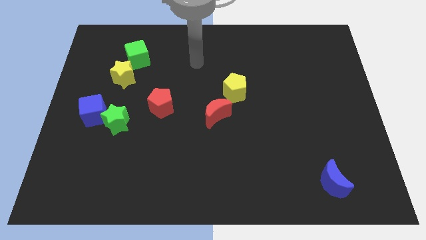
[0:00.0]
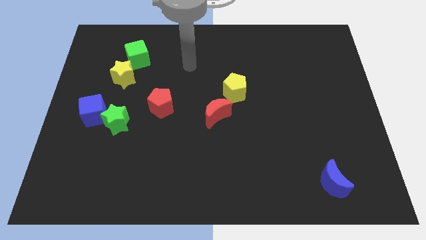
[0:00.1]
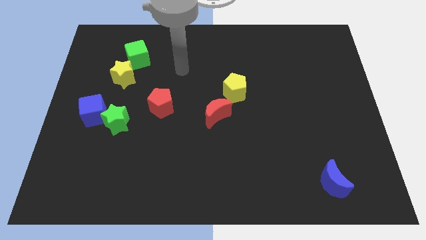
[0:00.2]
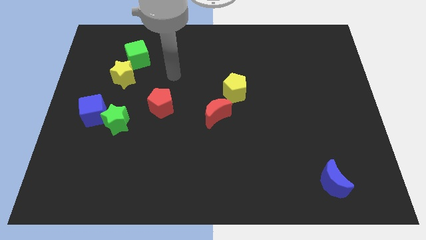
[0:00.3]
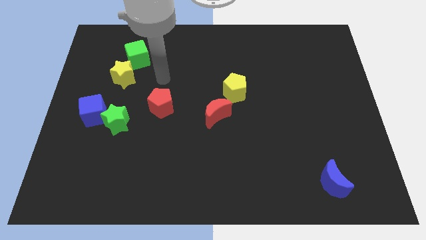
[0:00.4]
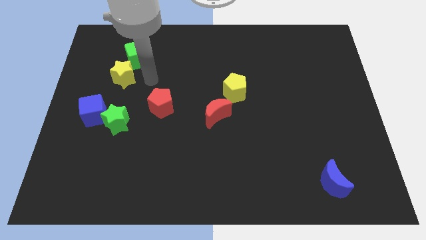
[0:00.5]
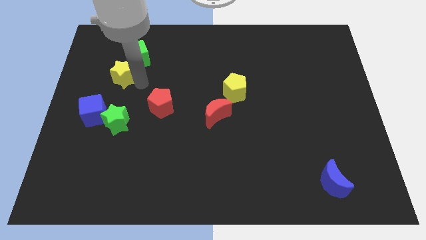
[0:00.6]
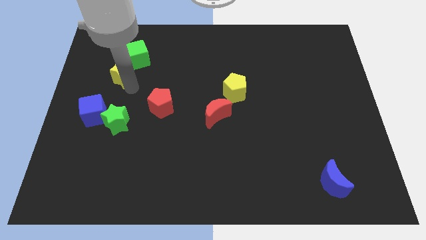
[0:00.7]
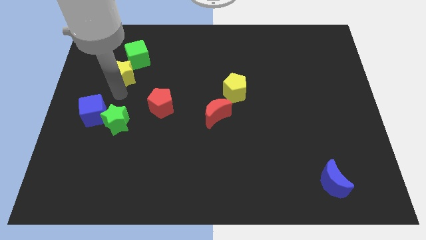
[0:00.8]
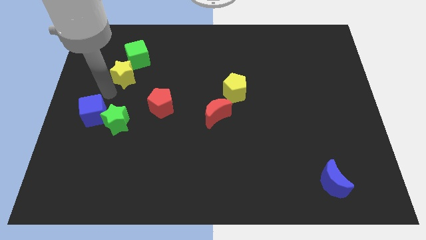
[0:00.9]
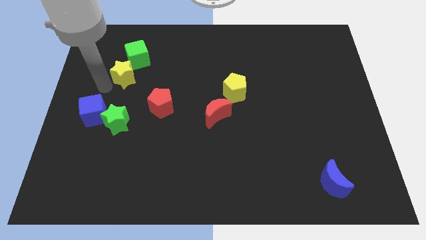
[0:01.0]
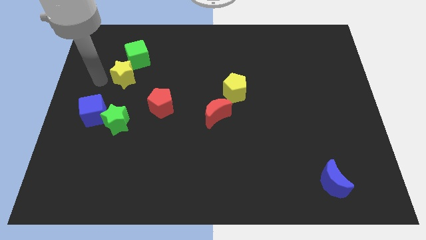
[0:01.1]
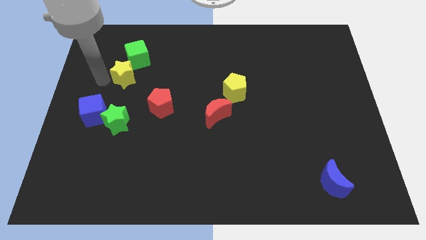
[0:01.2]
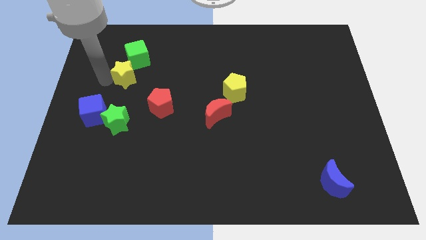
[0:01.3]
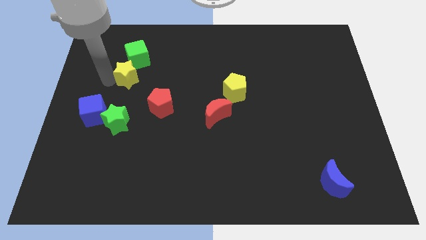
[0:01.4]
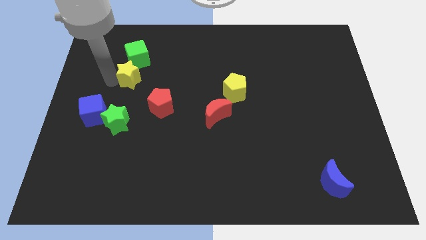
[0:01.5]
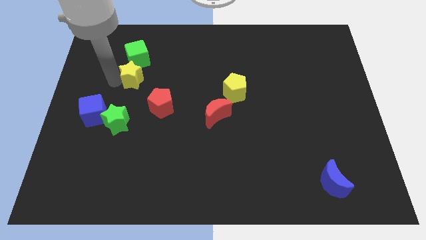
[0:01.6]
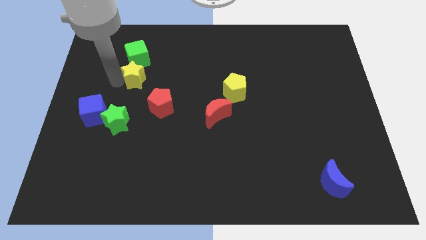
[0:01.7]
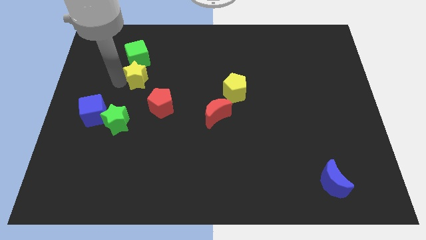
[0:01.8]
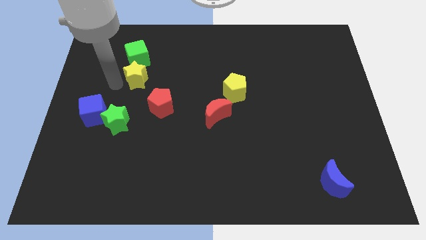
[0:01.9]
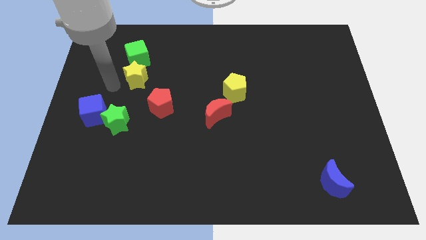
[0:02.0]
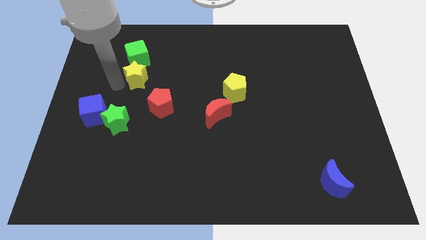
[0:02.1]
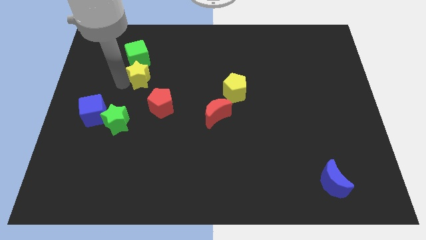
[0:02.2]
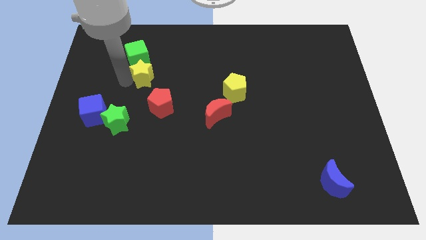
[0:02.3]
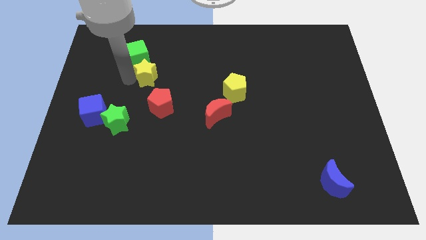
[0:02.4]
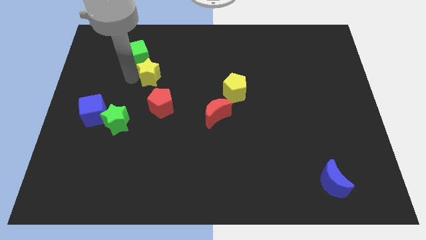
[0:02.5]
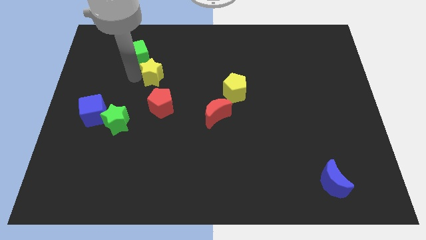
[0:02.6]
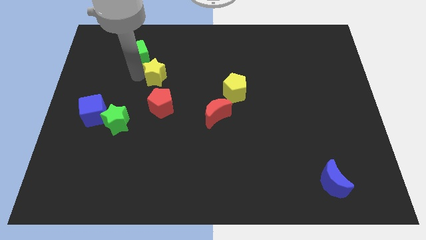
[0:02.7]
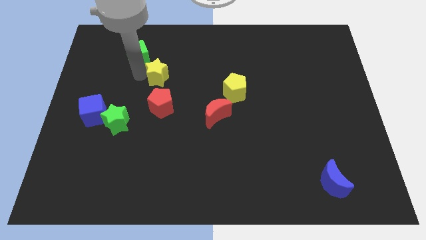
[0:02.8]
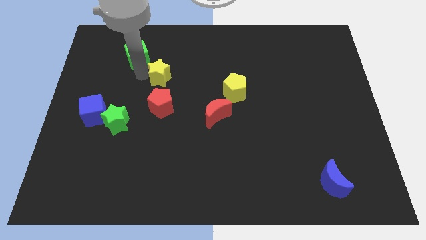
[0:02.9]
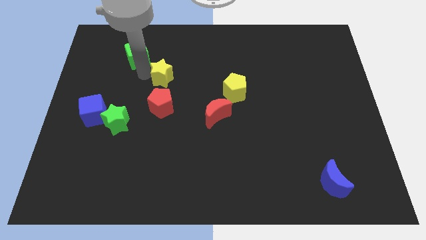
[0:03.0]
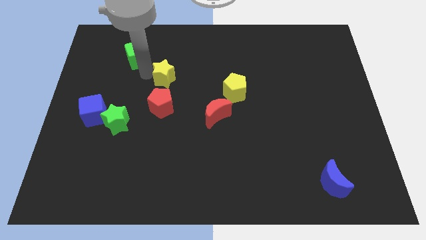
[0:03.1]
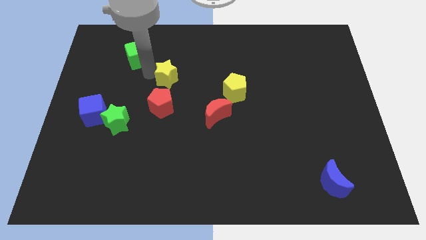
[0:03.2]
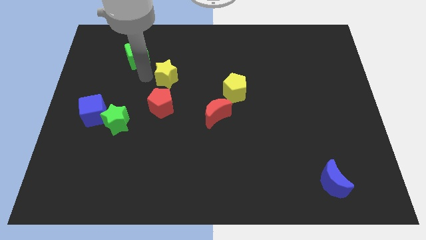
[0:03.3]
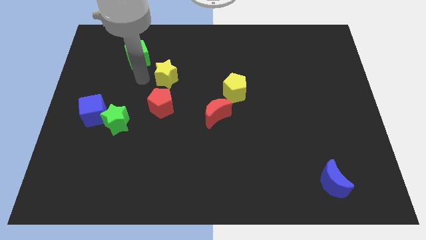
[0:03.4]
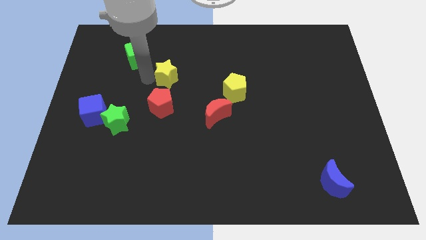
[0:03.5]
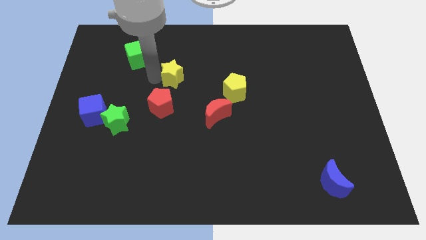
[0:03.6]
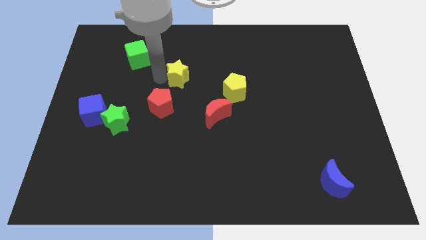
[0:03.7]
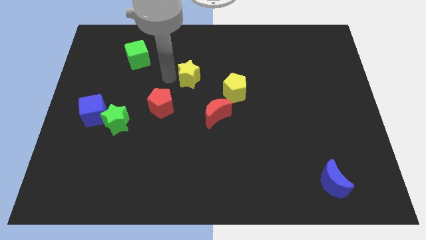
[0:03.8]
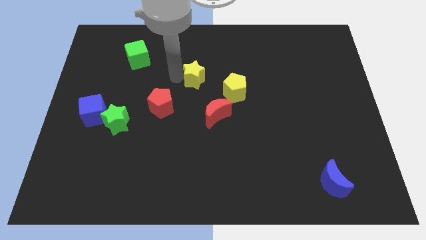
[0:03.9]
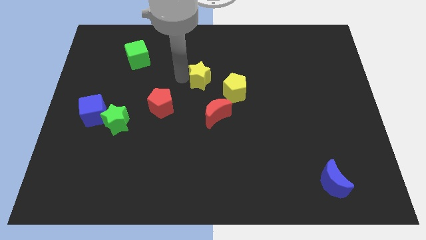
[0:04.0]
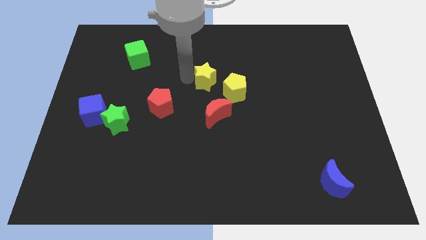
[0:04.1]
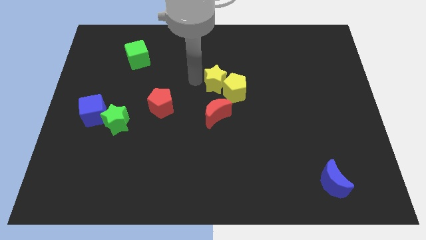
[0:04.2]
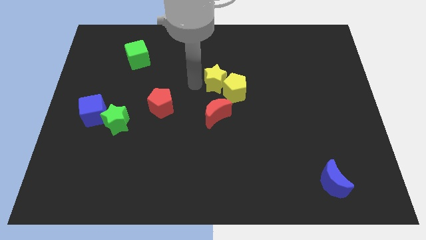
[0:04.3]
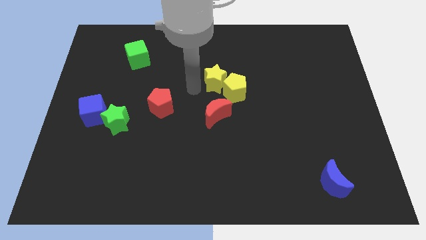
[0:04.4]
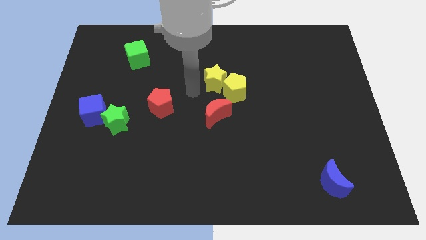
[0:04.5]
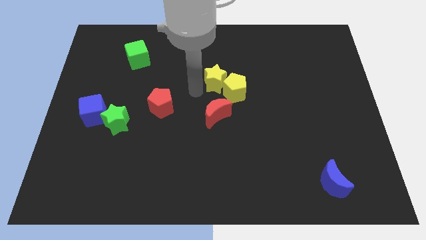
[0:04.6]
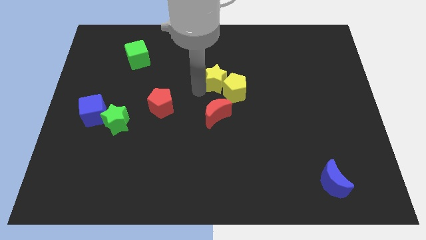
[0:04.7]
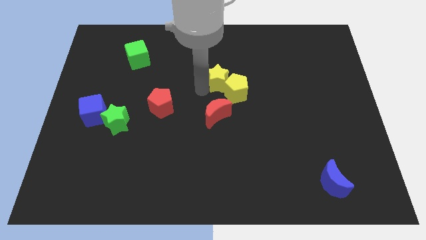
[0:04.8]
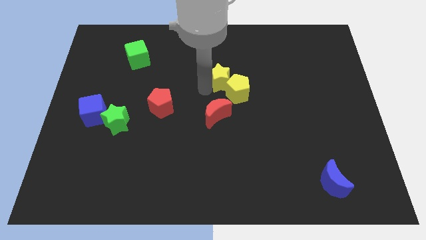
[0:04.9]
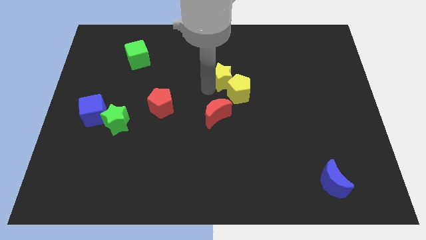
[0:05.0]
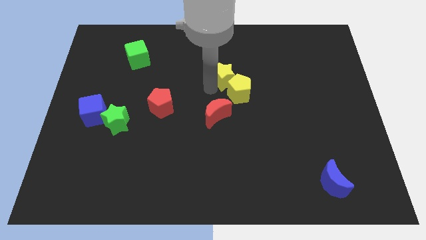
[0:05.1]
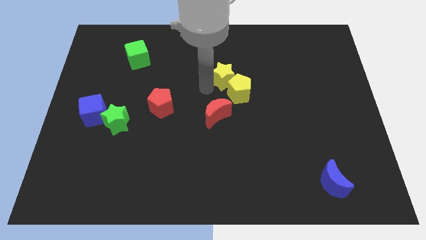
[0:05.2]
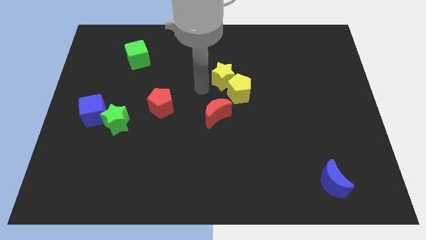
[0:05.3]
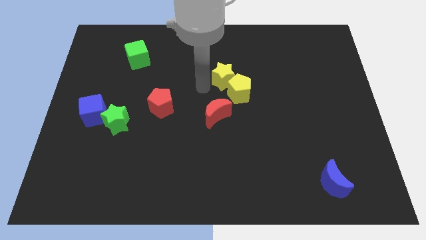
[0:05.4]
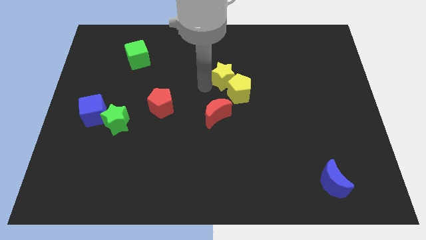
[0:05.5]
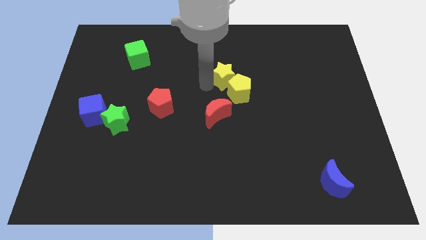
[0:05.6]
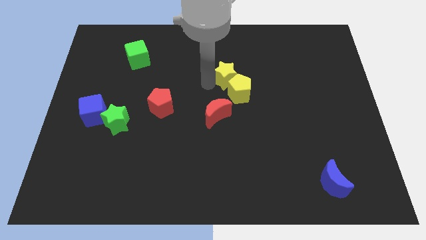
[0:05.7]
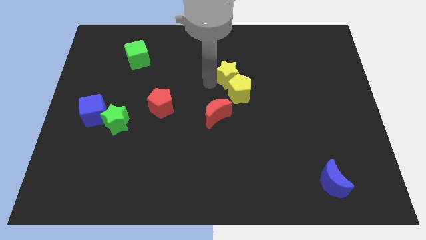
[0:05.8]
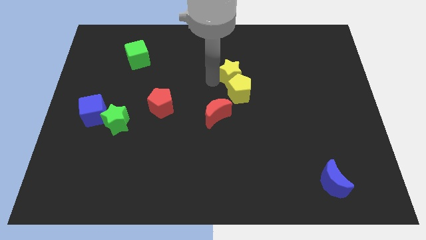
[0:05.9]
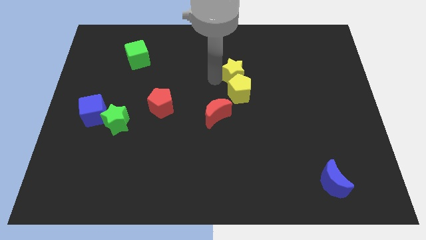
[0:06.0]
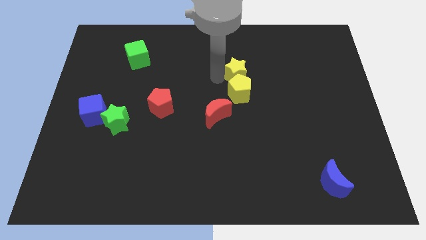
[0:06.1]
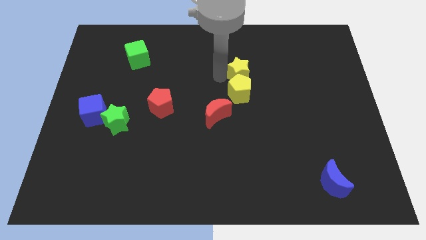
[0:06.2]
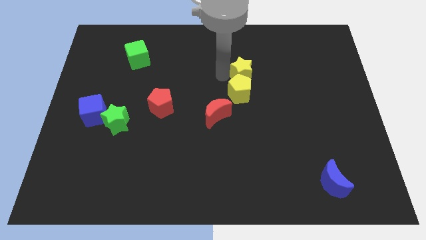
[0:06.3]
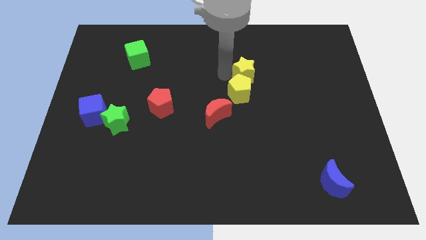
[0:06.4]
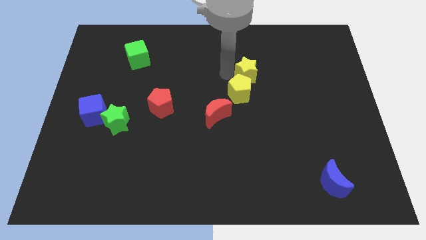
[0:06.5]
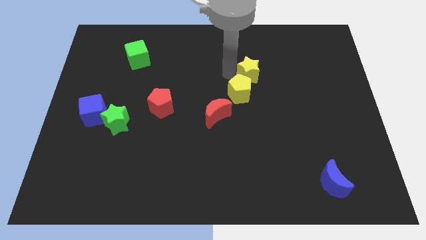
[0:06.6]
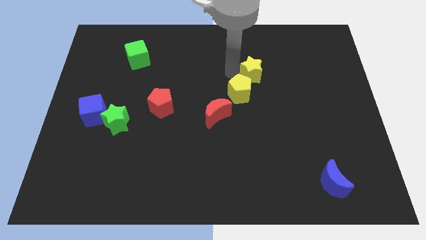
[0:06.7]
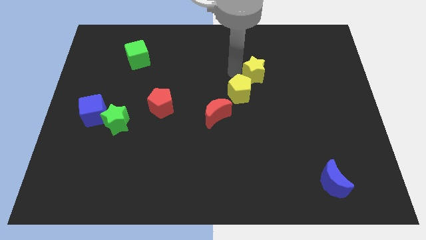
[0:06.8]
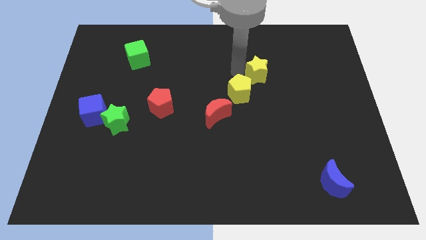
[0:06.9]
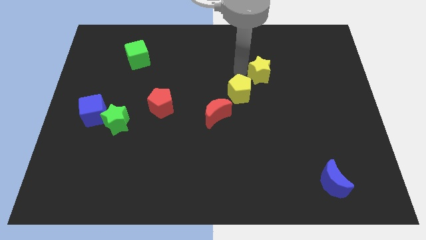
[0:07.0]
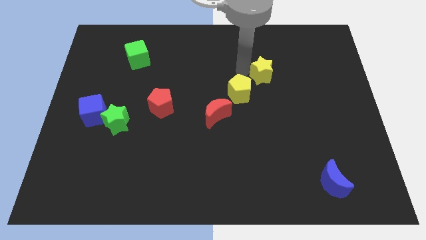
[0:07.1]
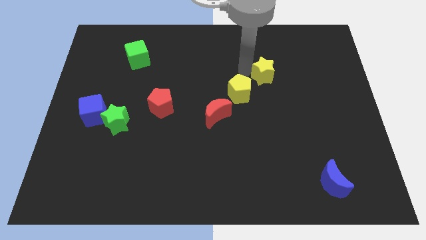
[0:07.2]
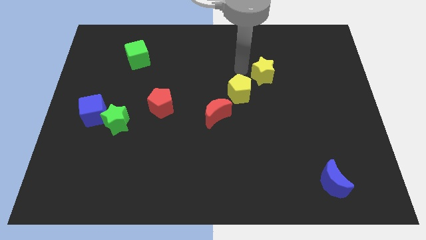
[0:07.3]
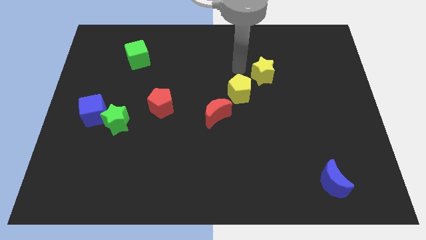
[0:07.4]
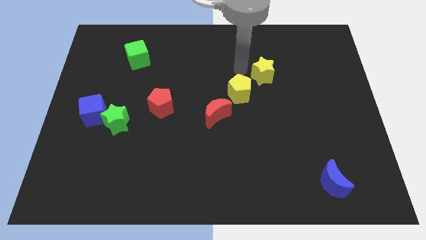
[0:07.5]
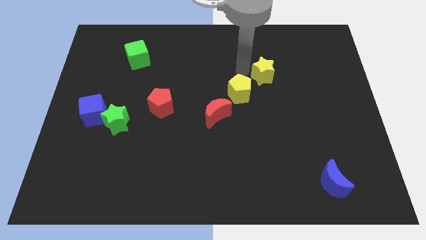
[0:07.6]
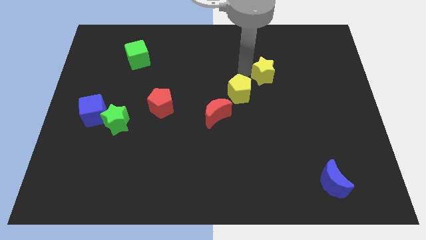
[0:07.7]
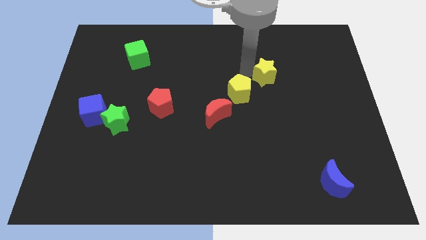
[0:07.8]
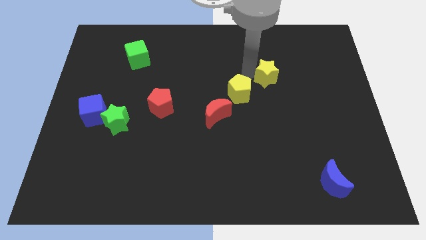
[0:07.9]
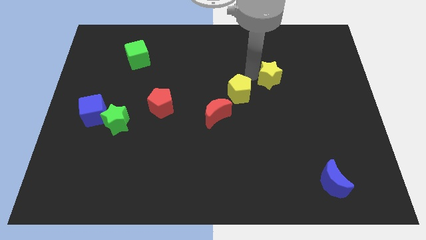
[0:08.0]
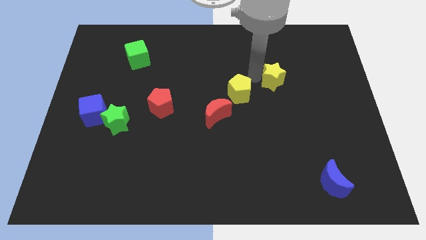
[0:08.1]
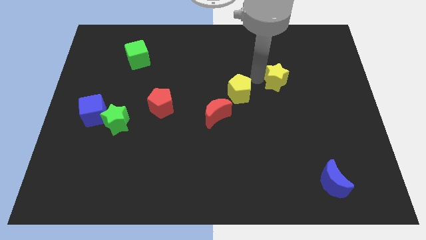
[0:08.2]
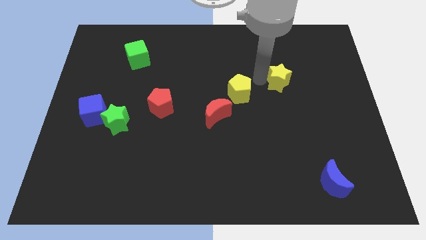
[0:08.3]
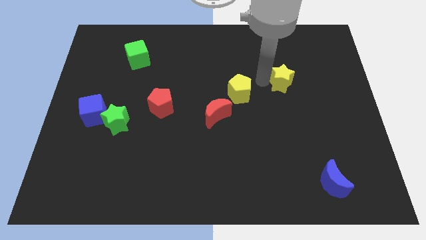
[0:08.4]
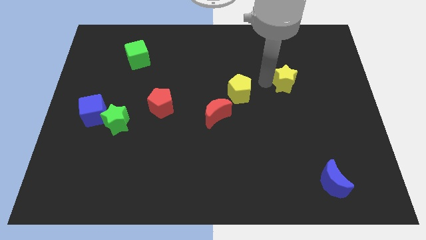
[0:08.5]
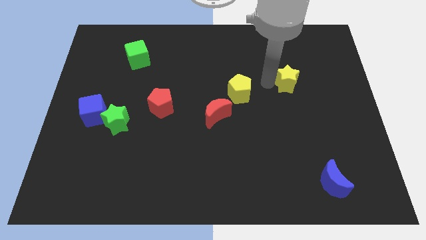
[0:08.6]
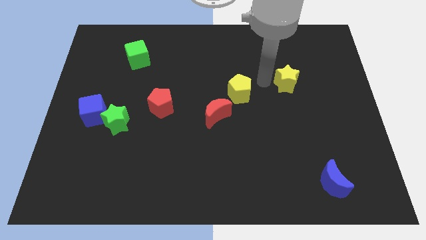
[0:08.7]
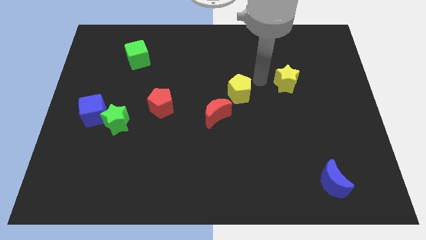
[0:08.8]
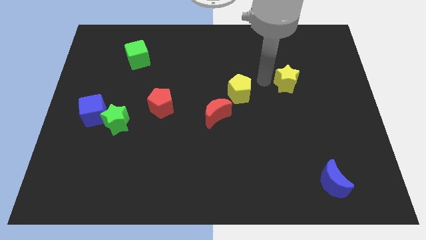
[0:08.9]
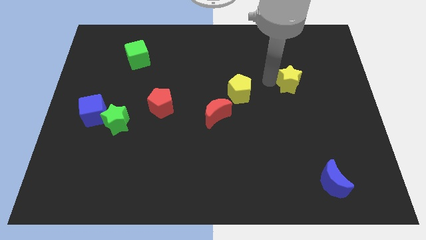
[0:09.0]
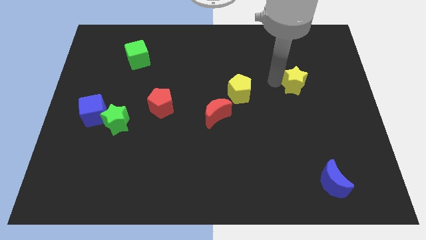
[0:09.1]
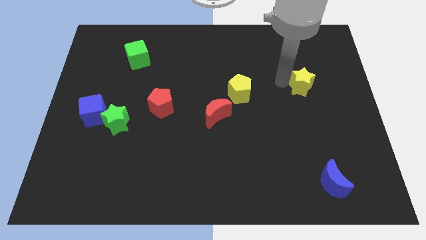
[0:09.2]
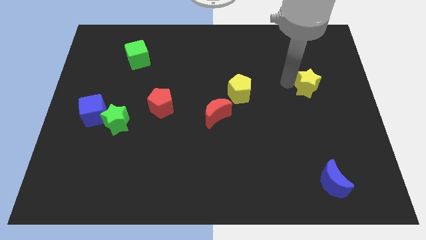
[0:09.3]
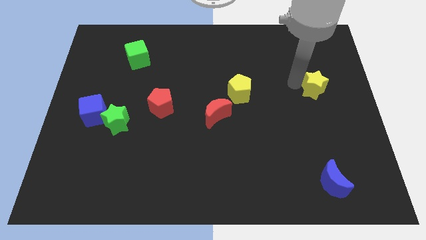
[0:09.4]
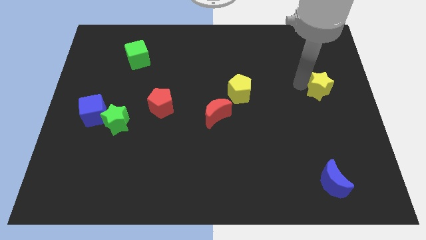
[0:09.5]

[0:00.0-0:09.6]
push the yellow star to the right side of the board
